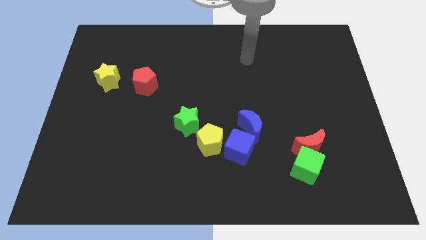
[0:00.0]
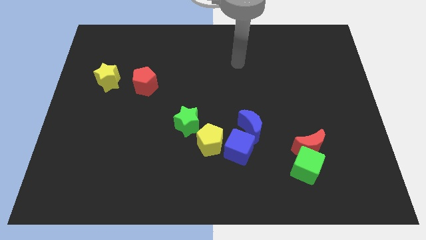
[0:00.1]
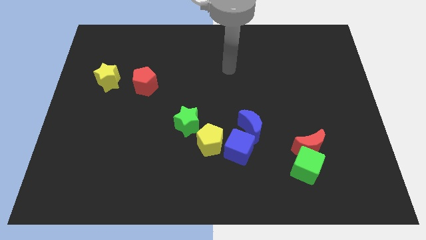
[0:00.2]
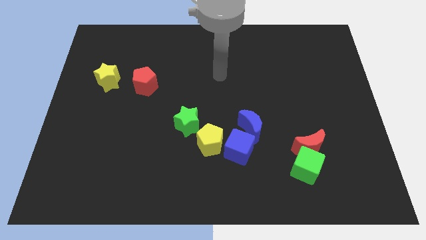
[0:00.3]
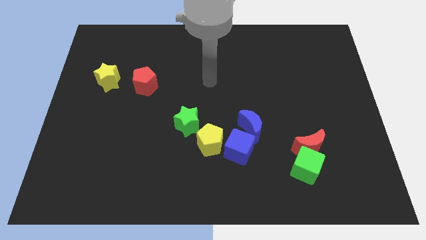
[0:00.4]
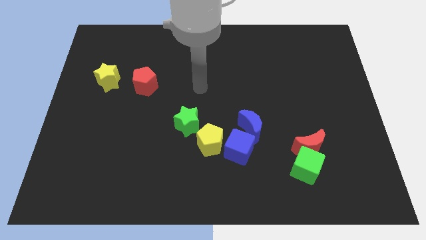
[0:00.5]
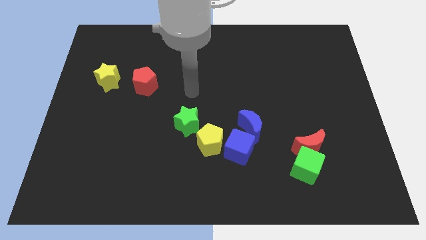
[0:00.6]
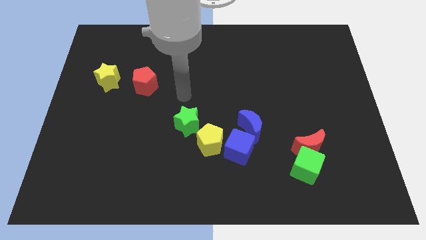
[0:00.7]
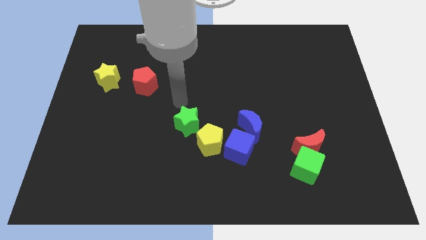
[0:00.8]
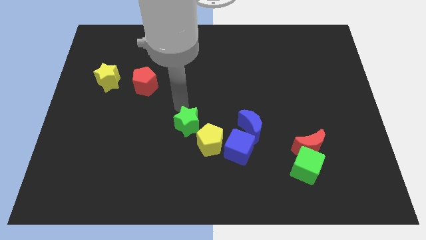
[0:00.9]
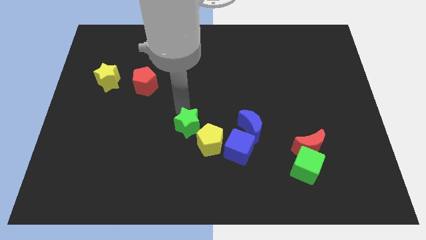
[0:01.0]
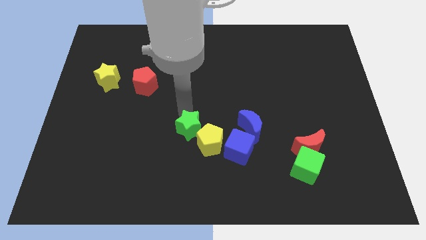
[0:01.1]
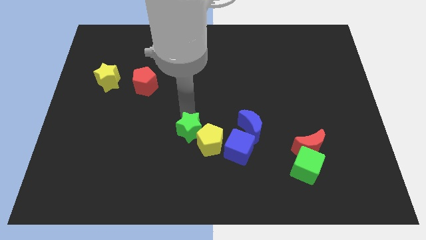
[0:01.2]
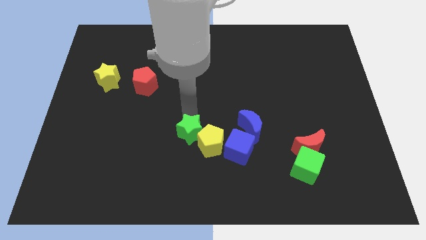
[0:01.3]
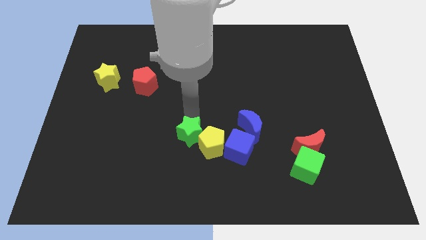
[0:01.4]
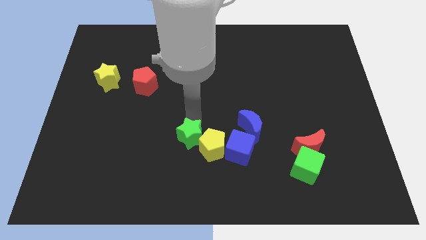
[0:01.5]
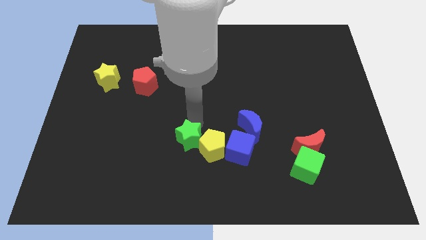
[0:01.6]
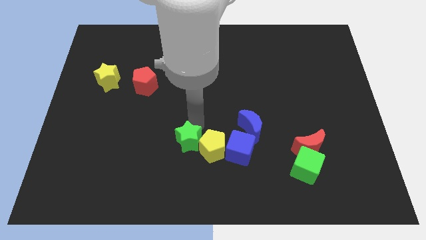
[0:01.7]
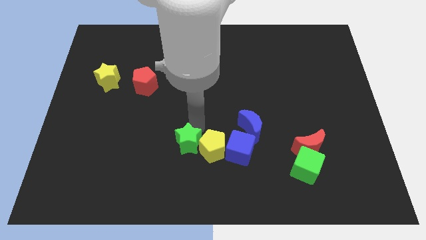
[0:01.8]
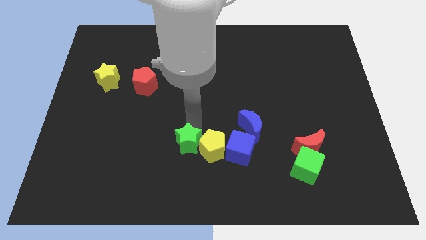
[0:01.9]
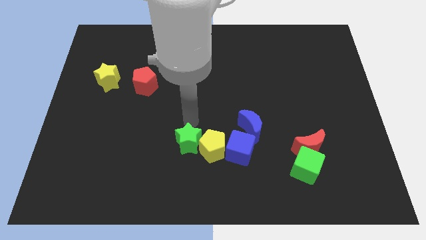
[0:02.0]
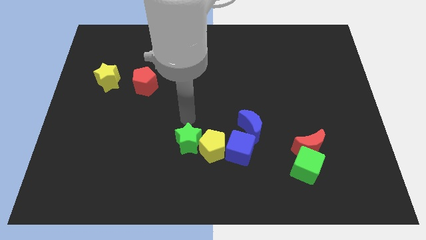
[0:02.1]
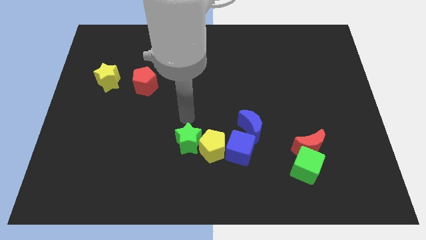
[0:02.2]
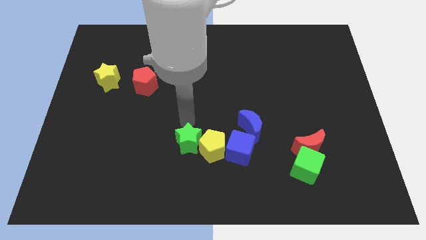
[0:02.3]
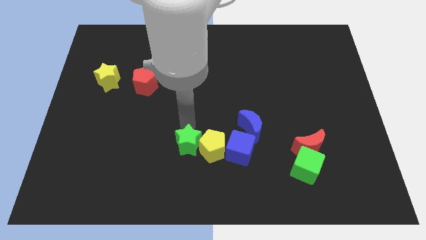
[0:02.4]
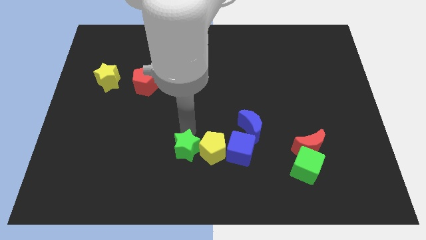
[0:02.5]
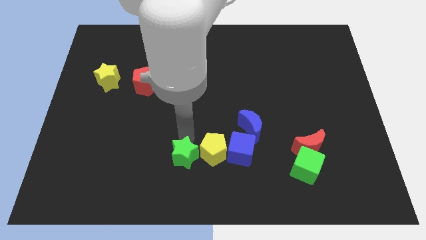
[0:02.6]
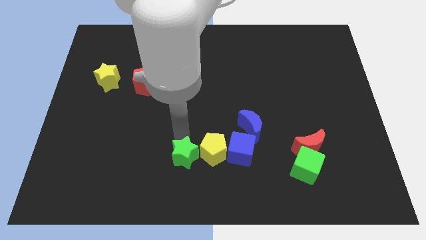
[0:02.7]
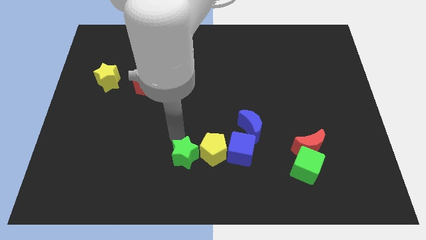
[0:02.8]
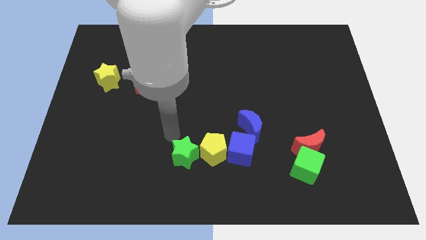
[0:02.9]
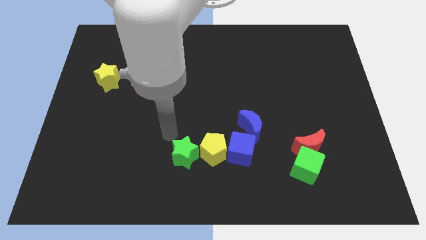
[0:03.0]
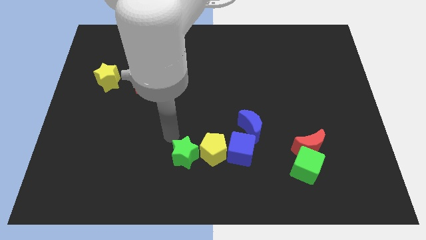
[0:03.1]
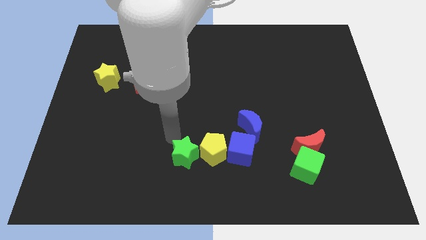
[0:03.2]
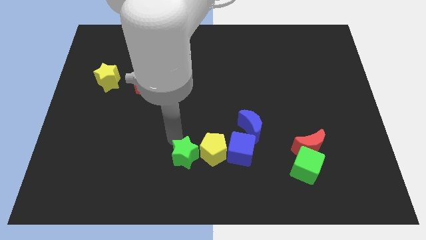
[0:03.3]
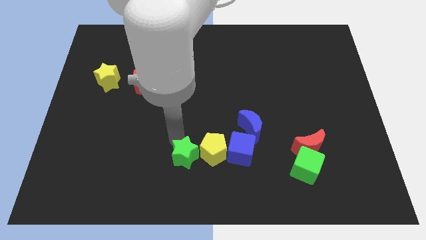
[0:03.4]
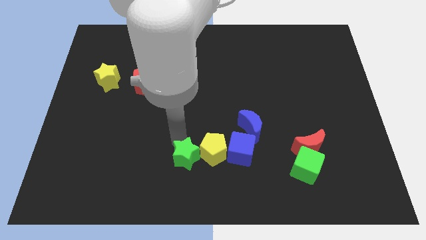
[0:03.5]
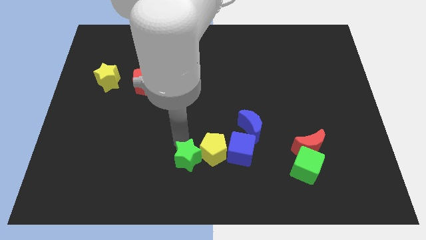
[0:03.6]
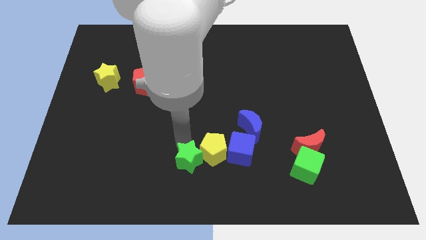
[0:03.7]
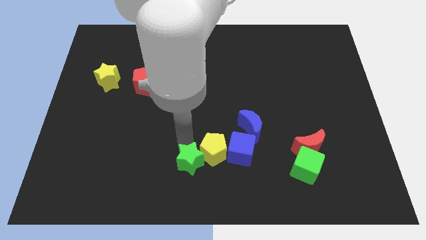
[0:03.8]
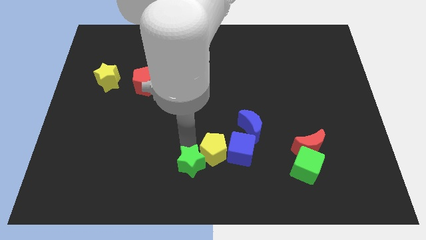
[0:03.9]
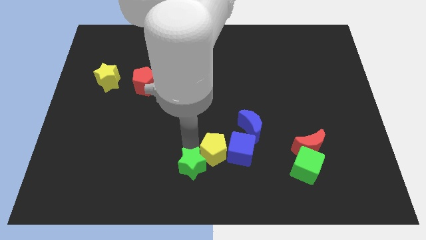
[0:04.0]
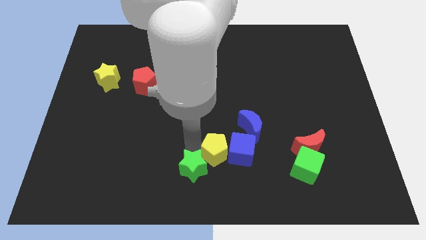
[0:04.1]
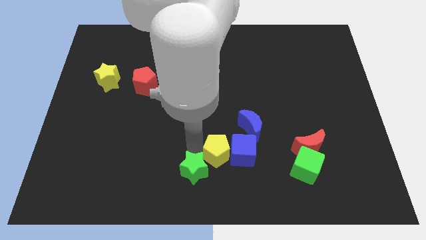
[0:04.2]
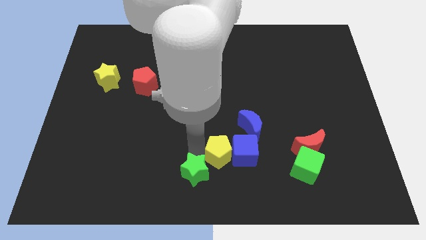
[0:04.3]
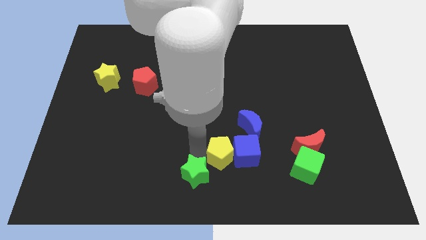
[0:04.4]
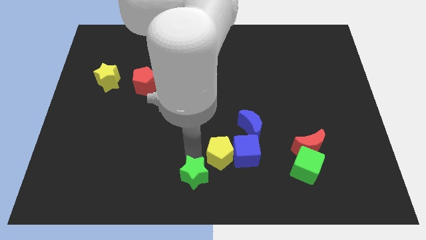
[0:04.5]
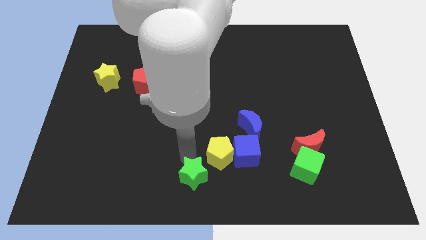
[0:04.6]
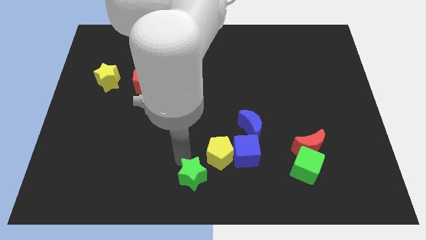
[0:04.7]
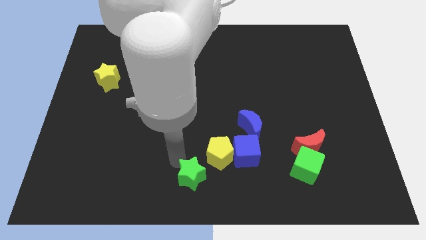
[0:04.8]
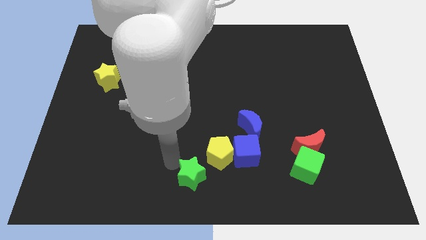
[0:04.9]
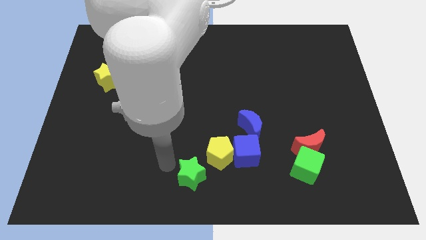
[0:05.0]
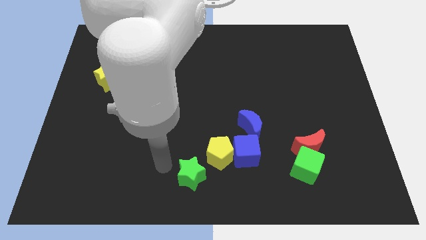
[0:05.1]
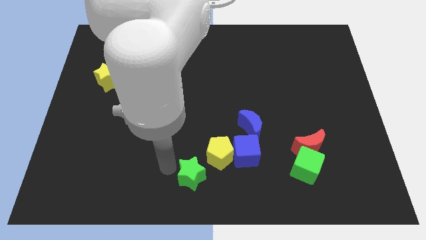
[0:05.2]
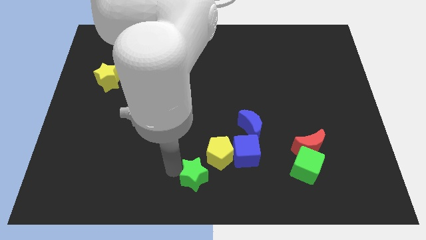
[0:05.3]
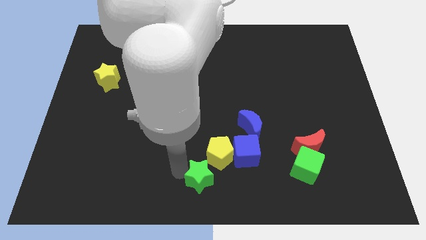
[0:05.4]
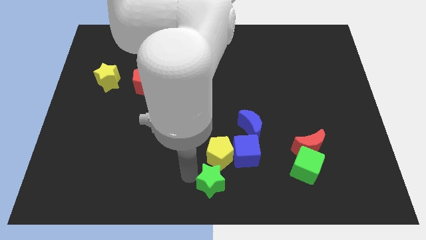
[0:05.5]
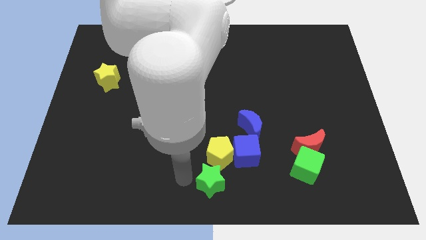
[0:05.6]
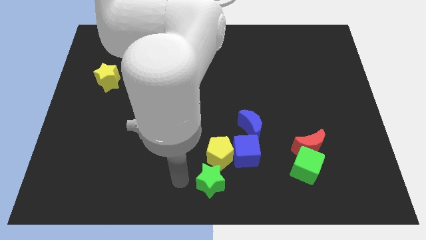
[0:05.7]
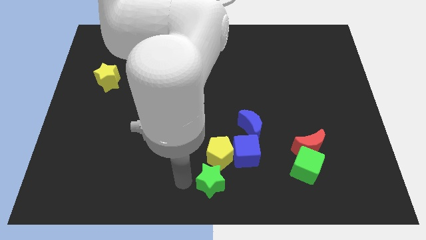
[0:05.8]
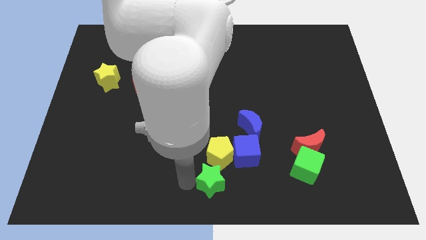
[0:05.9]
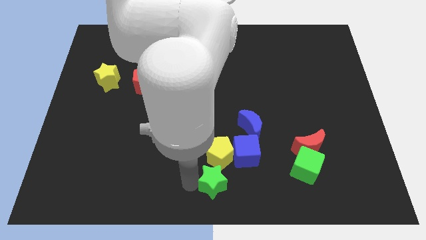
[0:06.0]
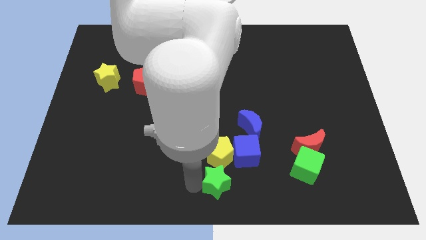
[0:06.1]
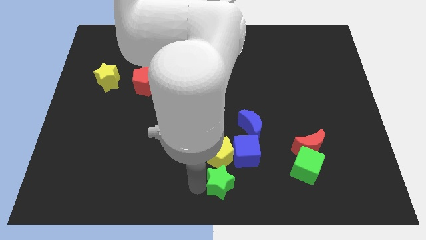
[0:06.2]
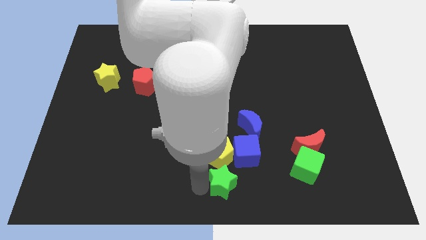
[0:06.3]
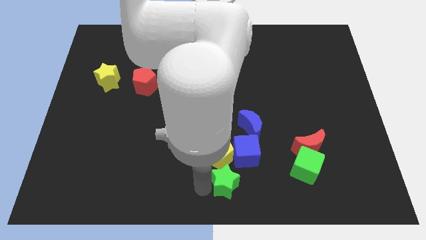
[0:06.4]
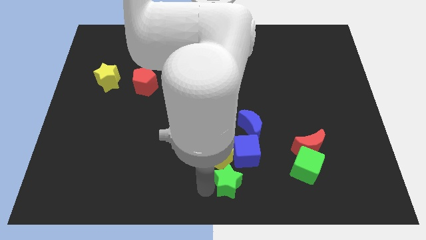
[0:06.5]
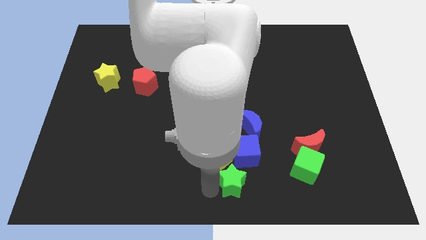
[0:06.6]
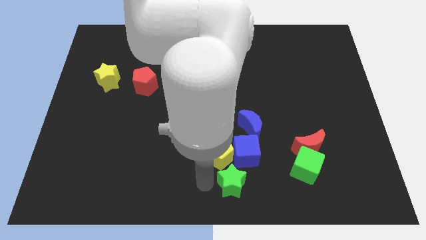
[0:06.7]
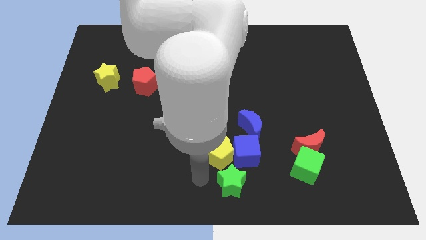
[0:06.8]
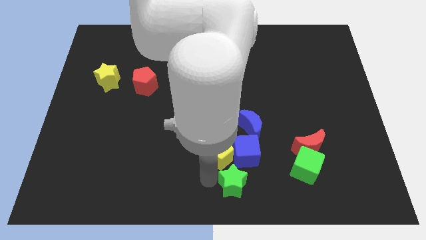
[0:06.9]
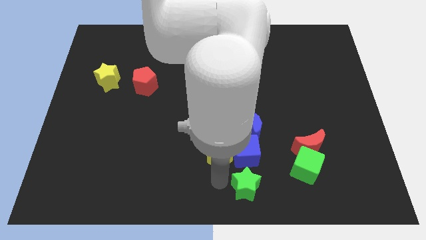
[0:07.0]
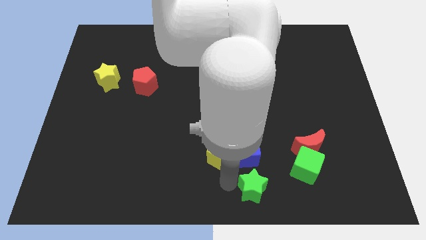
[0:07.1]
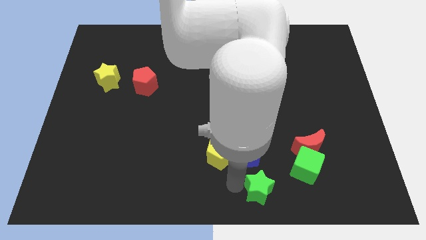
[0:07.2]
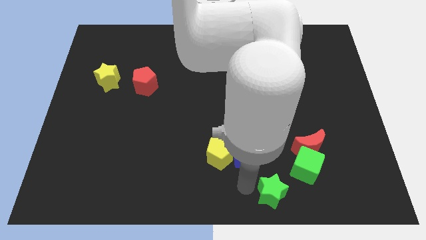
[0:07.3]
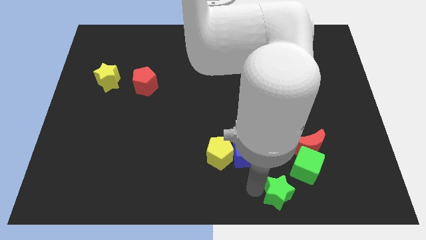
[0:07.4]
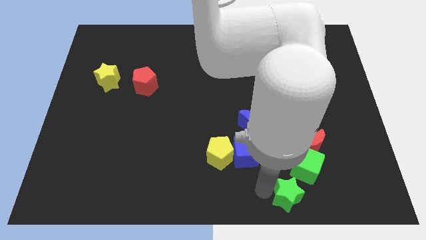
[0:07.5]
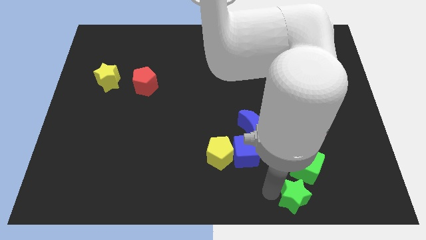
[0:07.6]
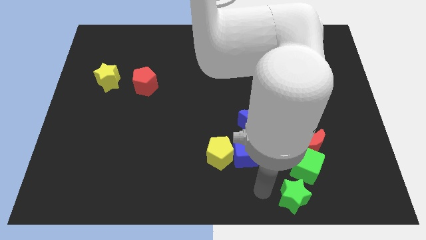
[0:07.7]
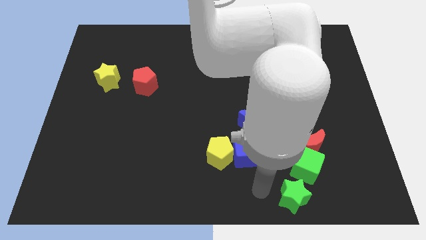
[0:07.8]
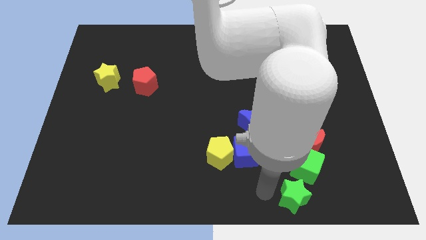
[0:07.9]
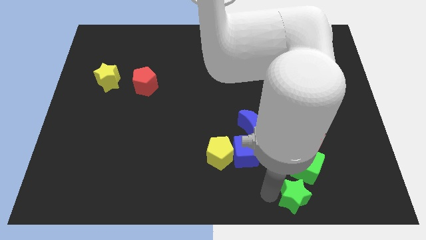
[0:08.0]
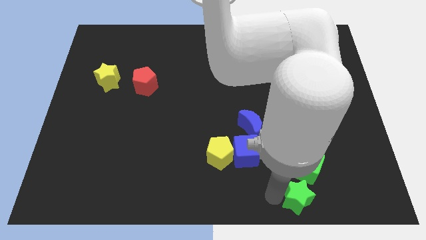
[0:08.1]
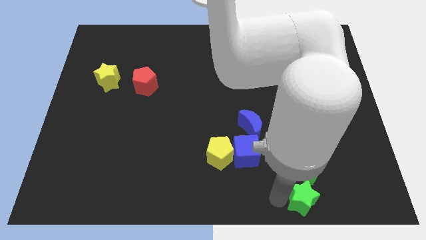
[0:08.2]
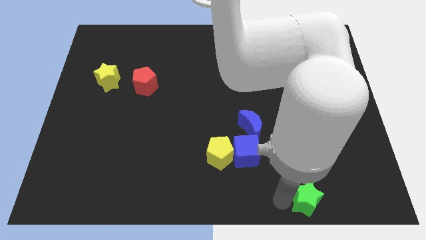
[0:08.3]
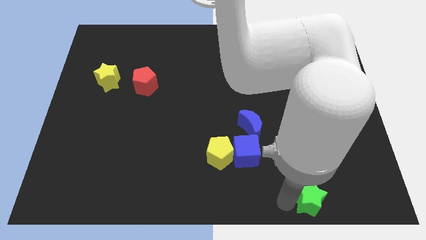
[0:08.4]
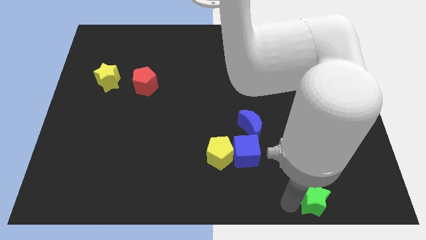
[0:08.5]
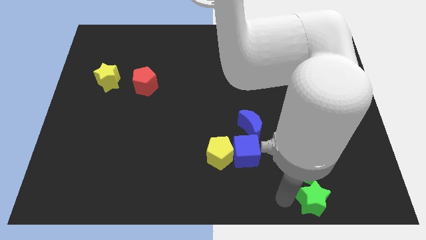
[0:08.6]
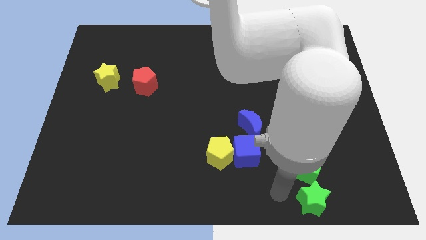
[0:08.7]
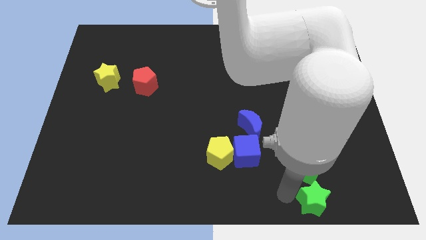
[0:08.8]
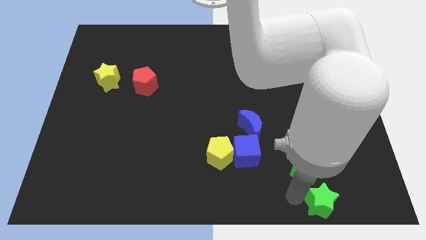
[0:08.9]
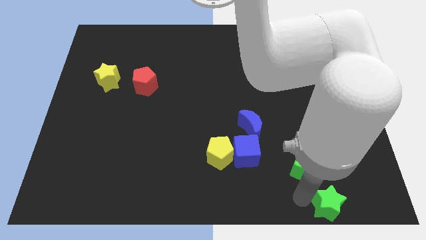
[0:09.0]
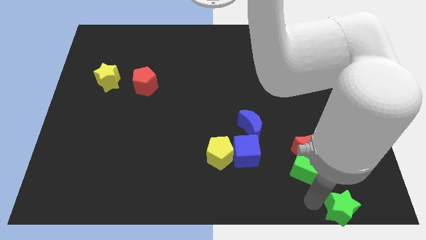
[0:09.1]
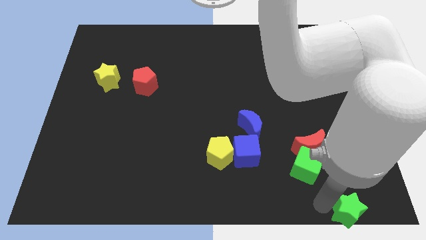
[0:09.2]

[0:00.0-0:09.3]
push the green star to the bottom right corner
